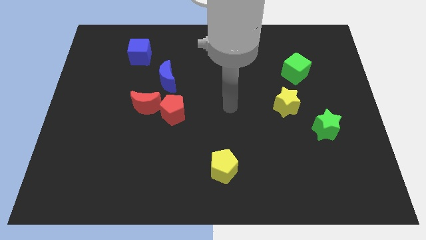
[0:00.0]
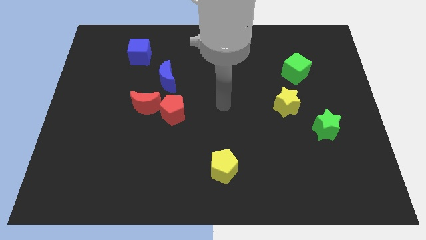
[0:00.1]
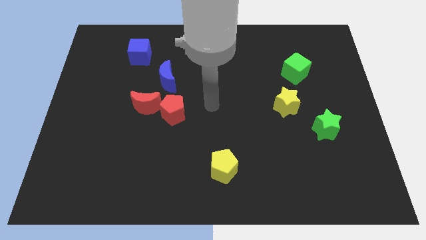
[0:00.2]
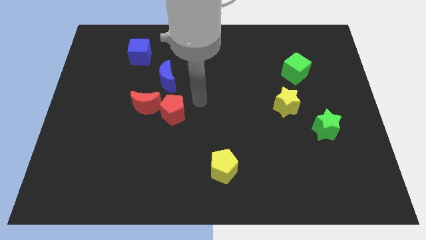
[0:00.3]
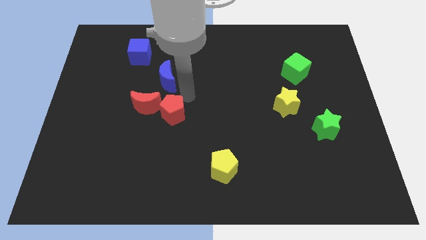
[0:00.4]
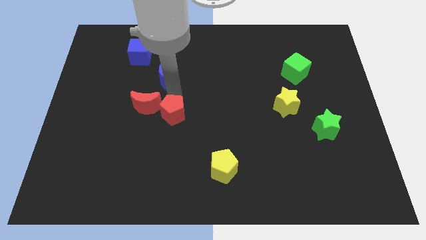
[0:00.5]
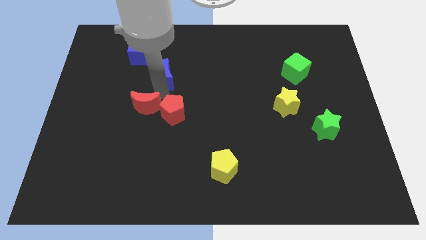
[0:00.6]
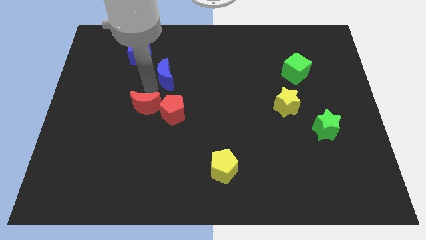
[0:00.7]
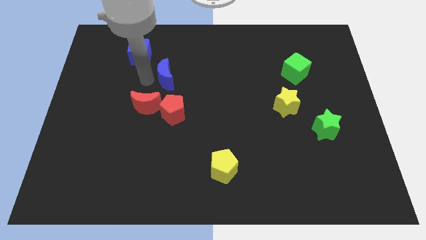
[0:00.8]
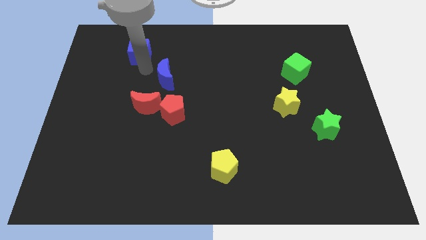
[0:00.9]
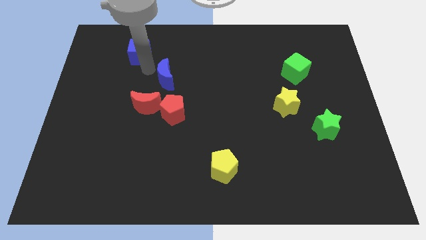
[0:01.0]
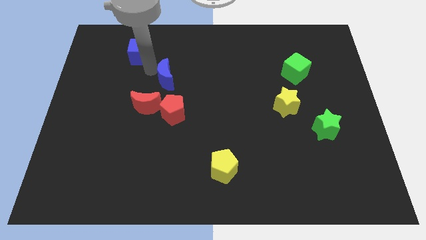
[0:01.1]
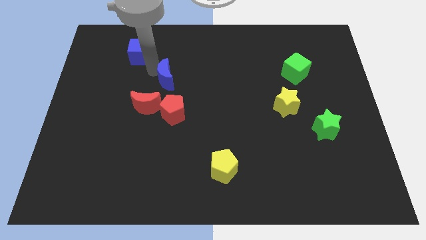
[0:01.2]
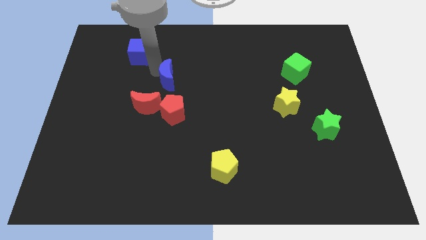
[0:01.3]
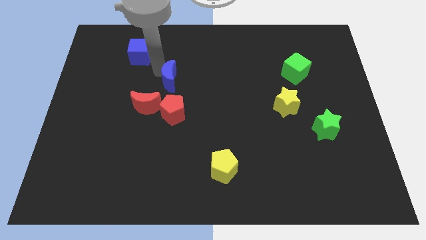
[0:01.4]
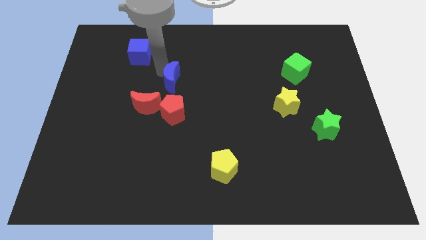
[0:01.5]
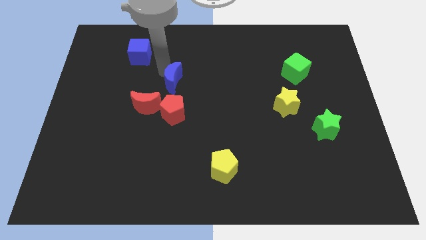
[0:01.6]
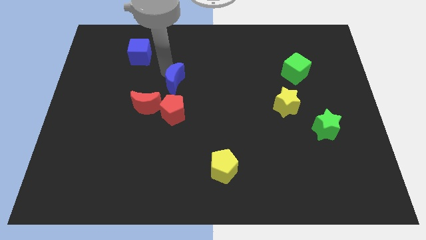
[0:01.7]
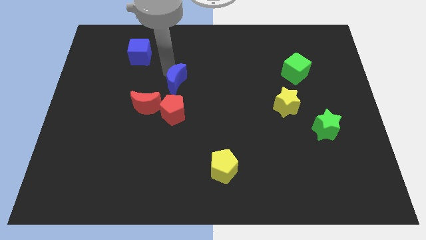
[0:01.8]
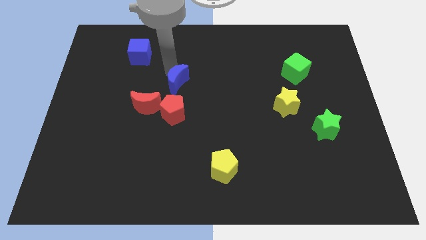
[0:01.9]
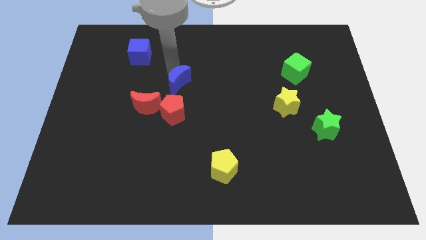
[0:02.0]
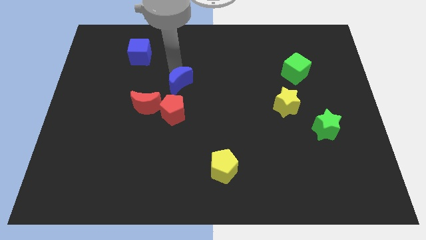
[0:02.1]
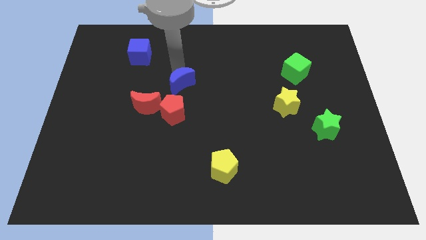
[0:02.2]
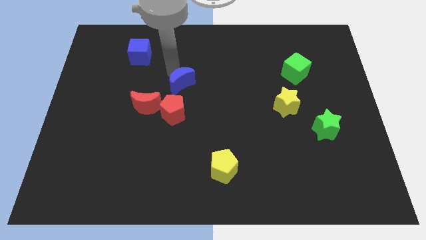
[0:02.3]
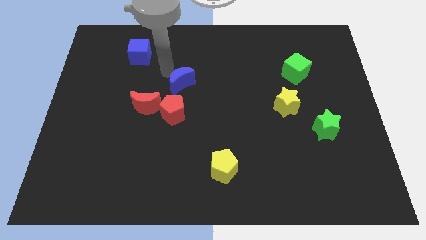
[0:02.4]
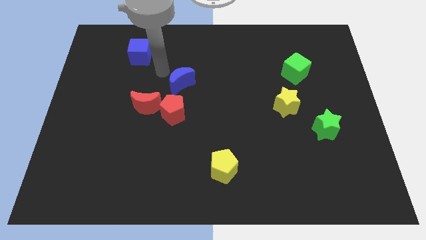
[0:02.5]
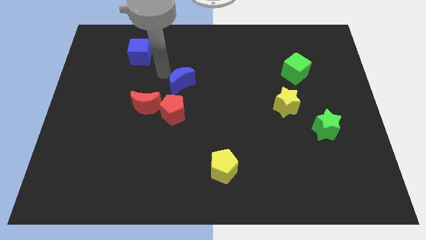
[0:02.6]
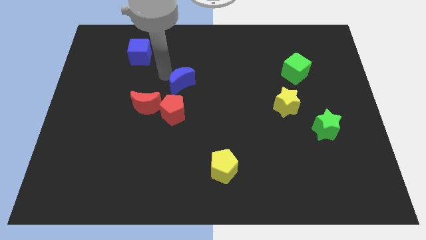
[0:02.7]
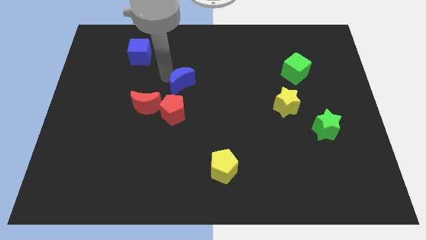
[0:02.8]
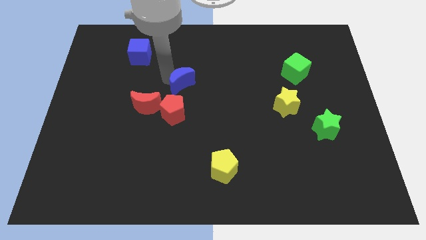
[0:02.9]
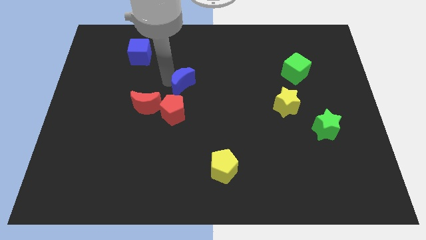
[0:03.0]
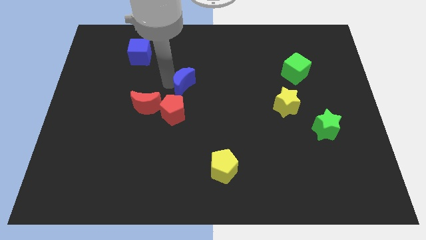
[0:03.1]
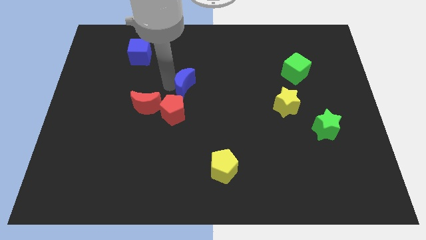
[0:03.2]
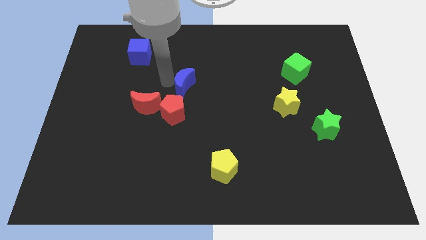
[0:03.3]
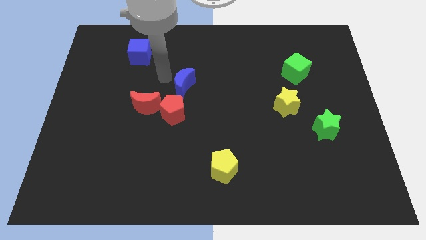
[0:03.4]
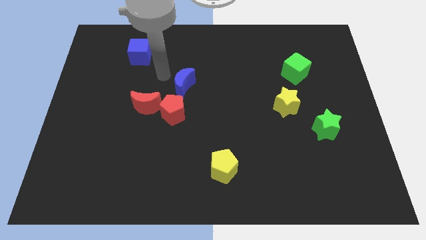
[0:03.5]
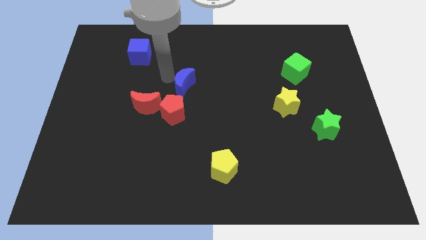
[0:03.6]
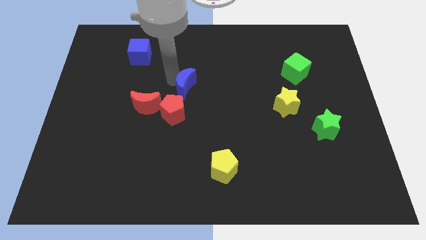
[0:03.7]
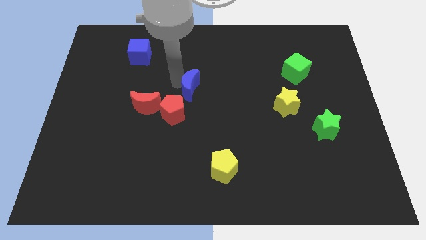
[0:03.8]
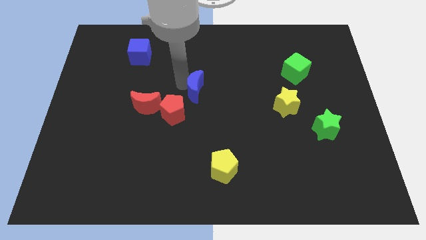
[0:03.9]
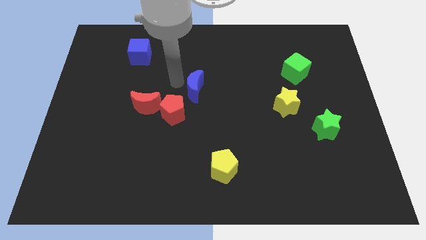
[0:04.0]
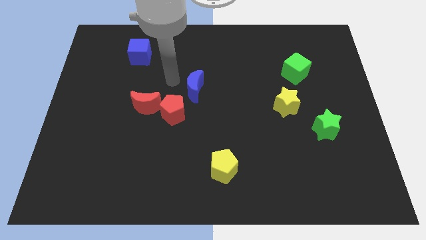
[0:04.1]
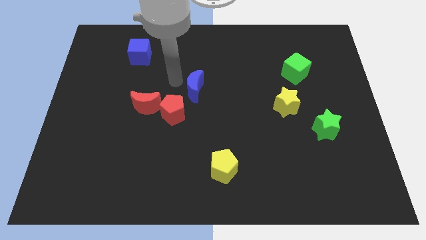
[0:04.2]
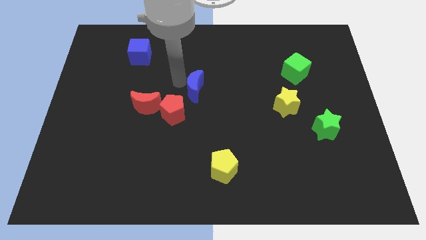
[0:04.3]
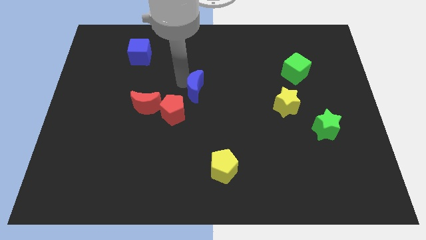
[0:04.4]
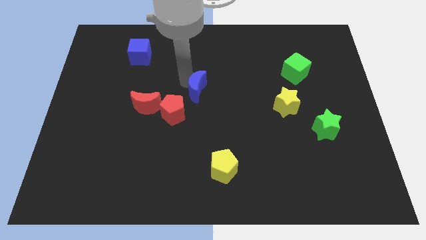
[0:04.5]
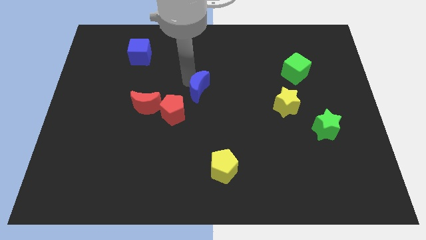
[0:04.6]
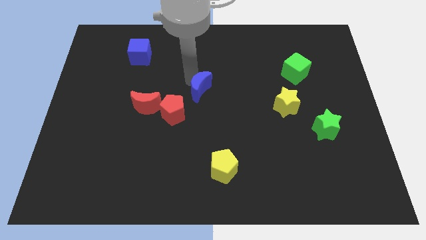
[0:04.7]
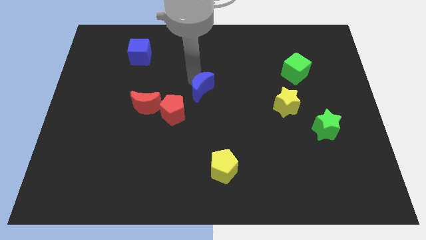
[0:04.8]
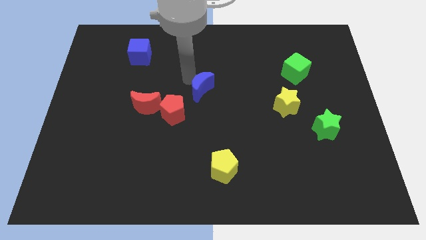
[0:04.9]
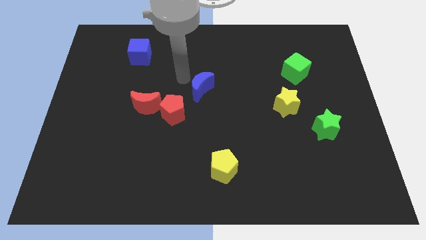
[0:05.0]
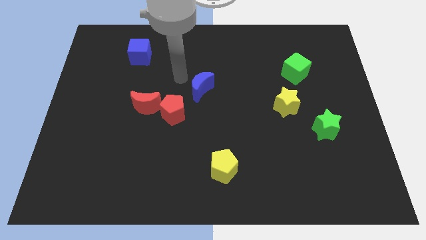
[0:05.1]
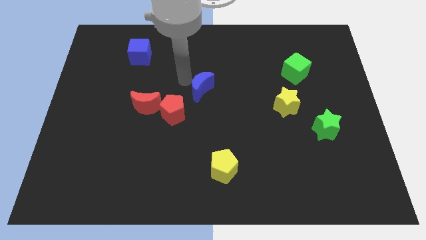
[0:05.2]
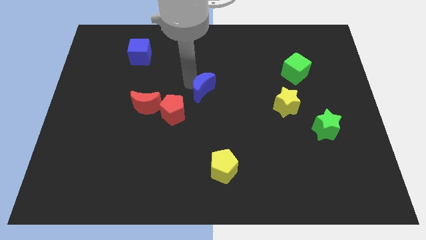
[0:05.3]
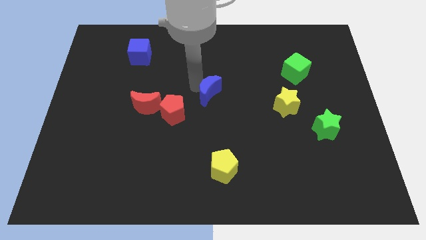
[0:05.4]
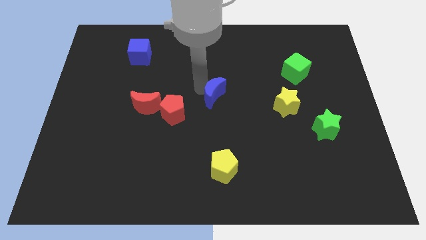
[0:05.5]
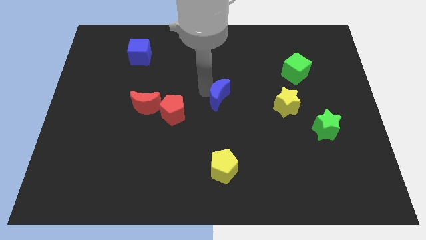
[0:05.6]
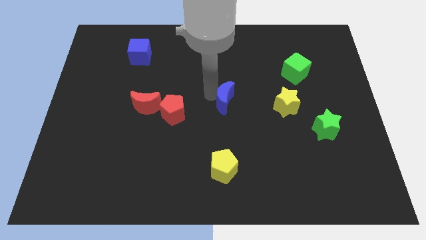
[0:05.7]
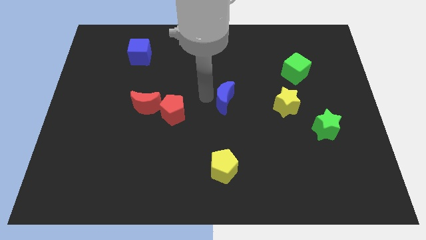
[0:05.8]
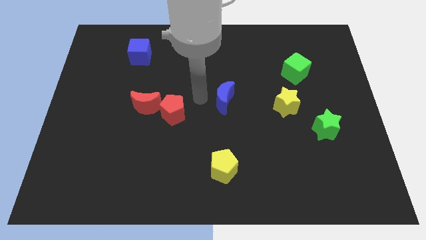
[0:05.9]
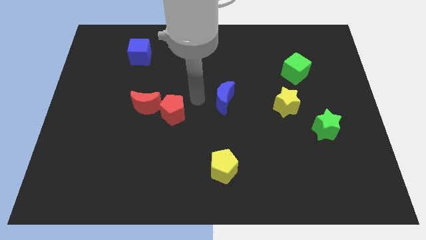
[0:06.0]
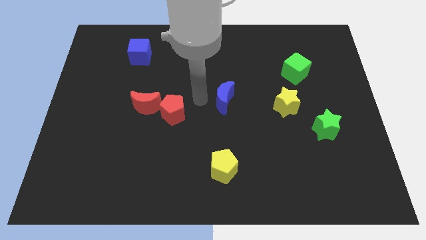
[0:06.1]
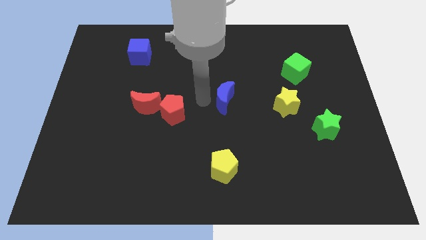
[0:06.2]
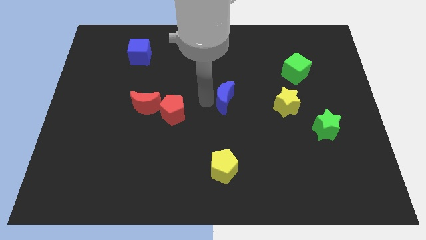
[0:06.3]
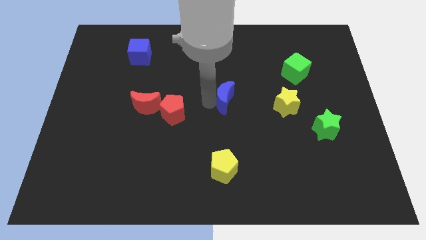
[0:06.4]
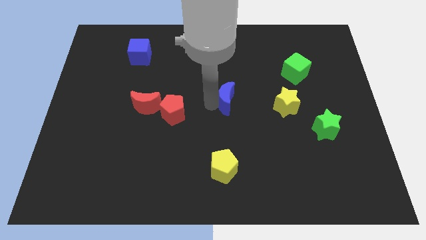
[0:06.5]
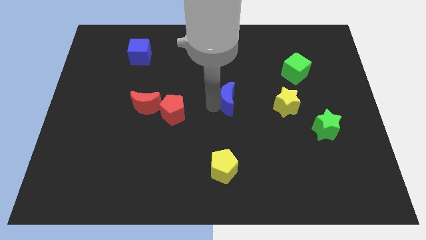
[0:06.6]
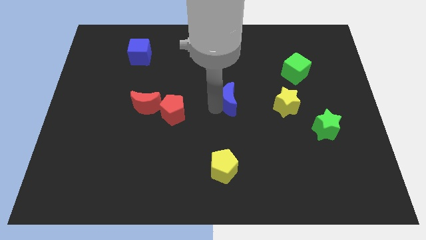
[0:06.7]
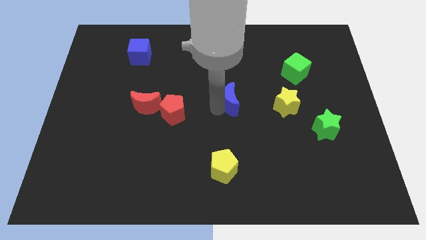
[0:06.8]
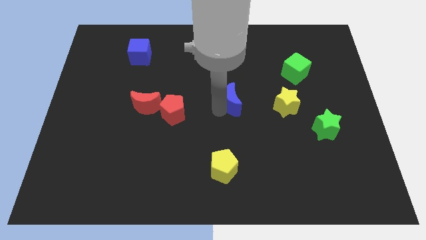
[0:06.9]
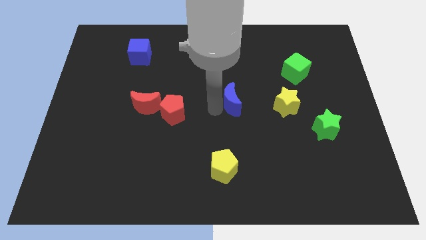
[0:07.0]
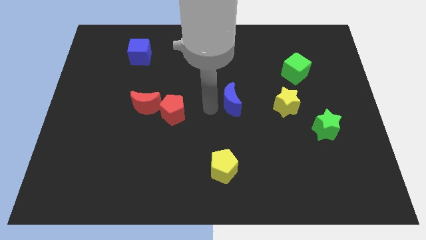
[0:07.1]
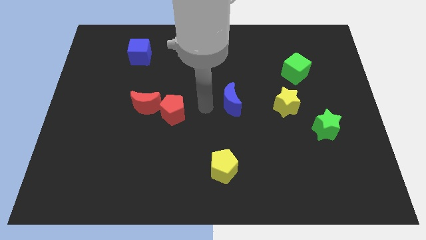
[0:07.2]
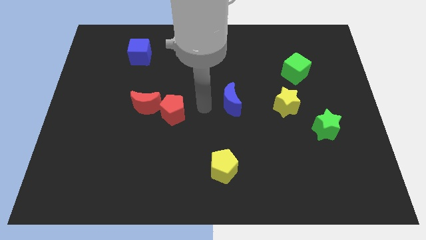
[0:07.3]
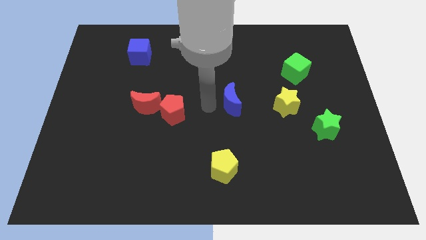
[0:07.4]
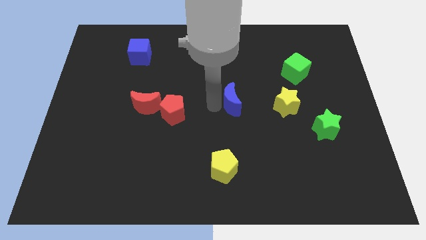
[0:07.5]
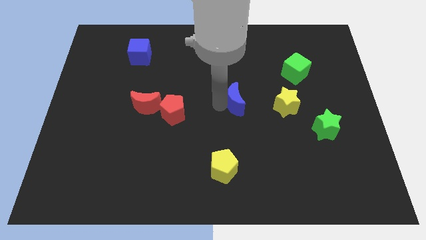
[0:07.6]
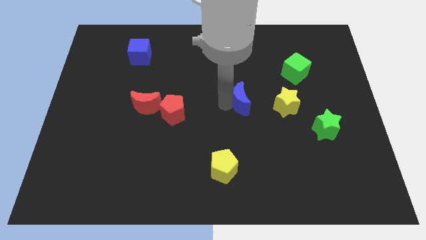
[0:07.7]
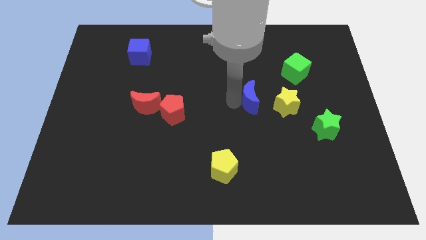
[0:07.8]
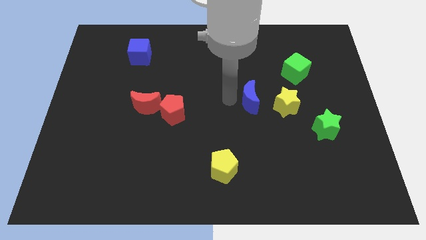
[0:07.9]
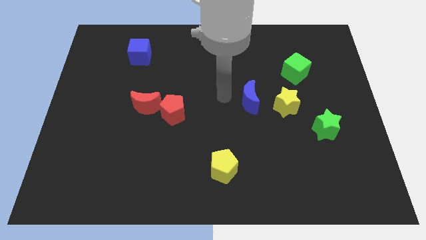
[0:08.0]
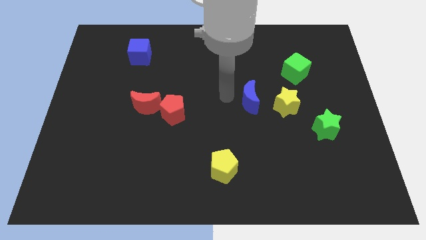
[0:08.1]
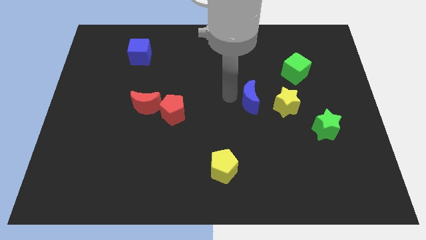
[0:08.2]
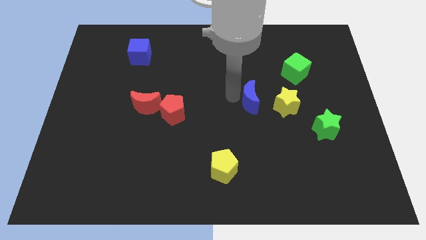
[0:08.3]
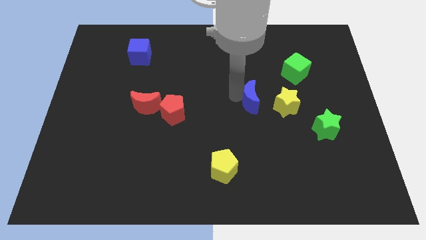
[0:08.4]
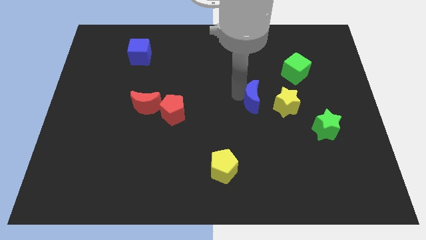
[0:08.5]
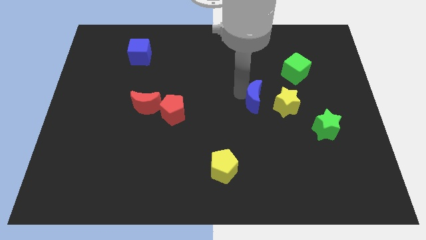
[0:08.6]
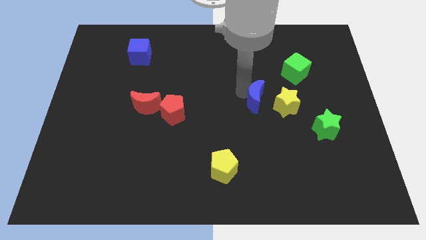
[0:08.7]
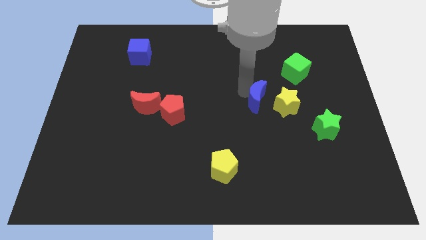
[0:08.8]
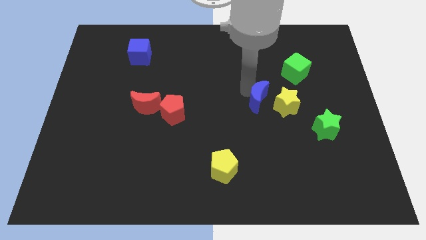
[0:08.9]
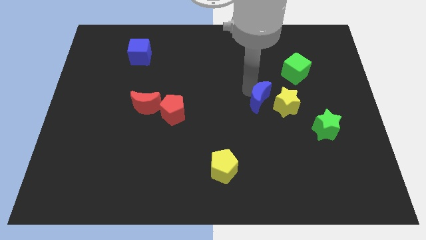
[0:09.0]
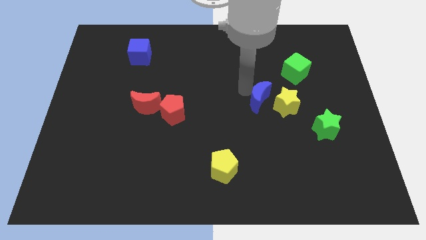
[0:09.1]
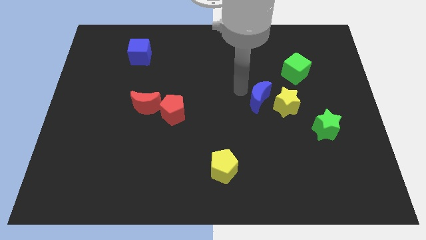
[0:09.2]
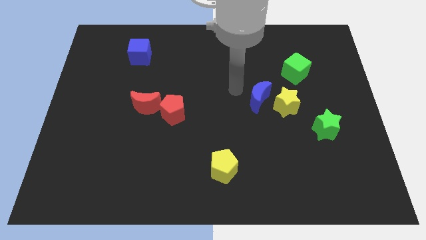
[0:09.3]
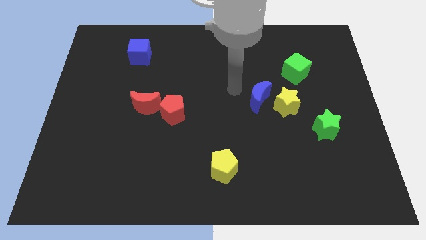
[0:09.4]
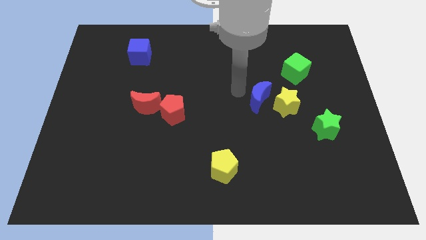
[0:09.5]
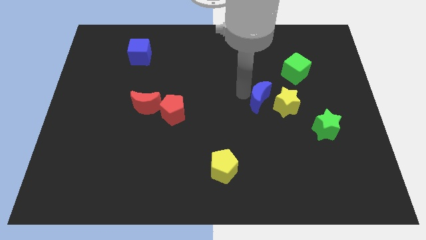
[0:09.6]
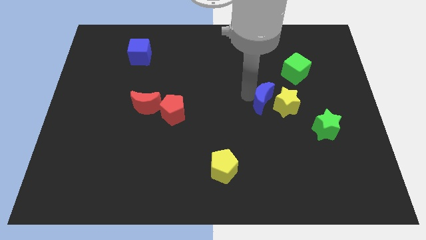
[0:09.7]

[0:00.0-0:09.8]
put the blue moon to the yellow star
